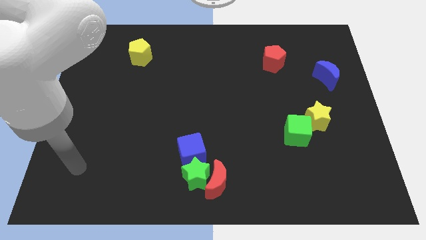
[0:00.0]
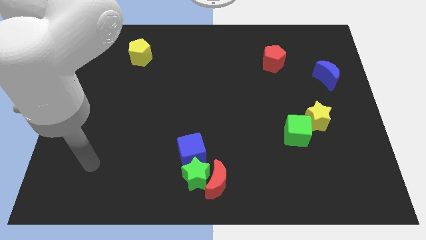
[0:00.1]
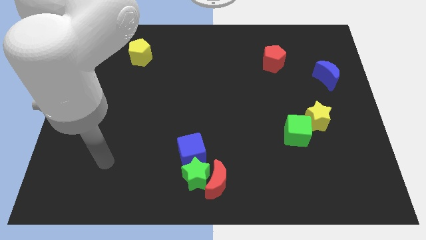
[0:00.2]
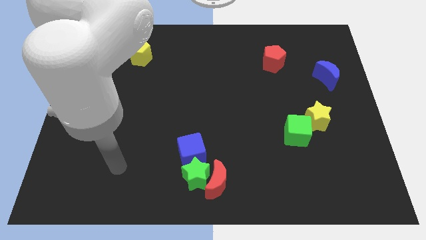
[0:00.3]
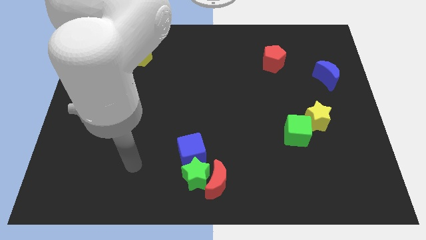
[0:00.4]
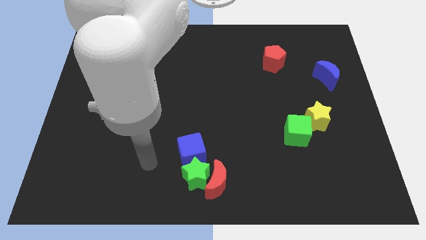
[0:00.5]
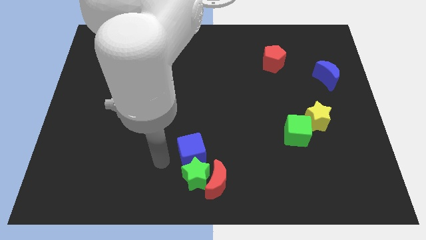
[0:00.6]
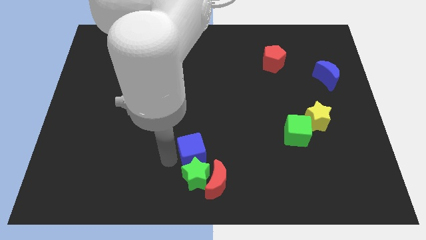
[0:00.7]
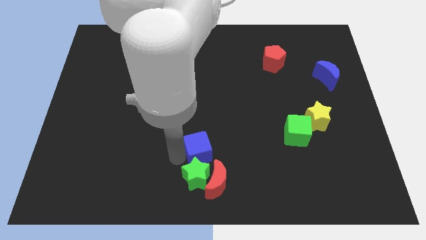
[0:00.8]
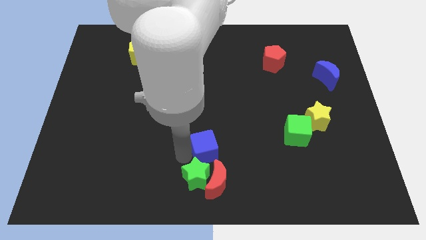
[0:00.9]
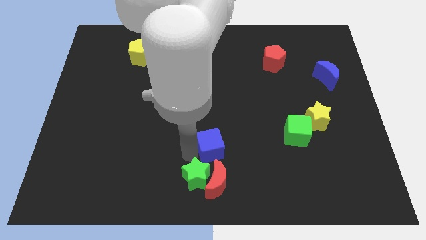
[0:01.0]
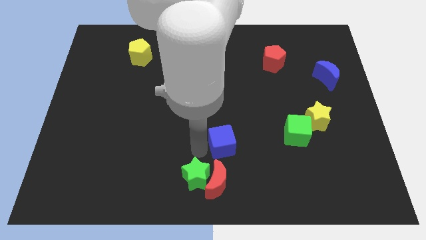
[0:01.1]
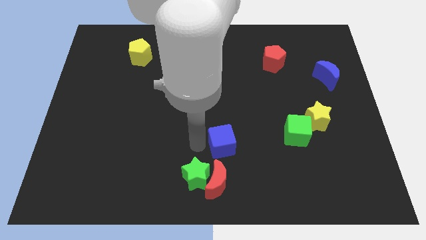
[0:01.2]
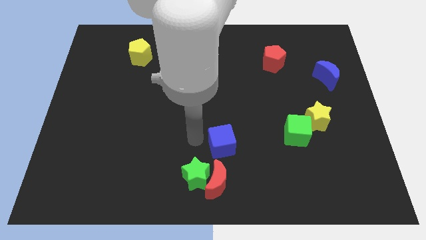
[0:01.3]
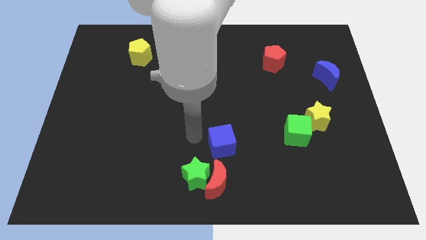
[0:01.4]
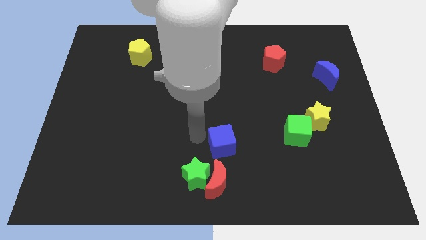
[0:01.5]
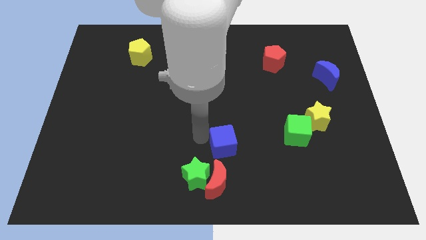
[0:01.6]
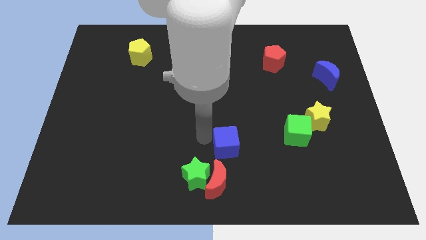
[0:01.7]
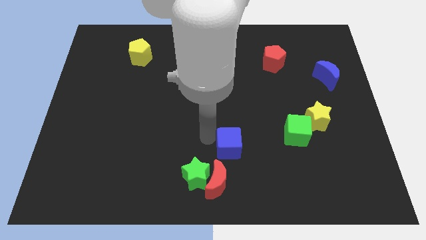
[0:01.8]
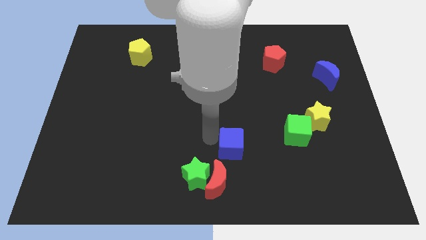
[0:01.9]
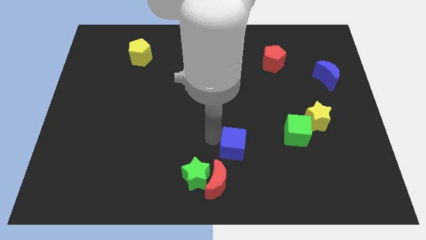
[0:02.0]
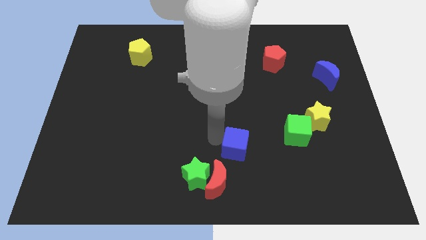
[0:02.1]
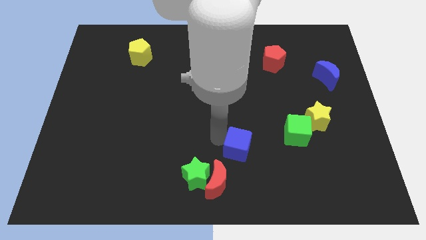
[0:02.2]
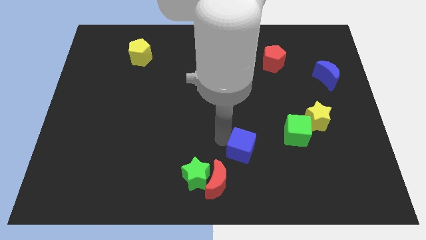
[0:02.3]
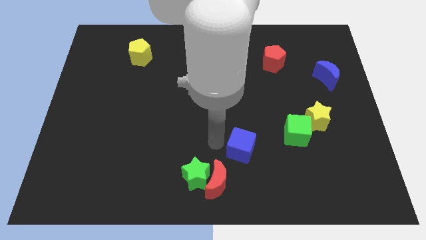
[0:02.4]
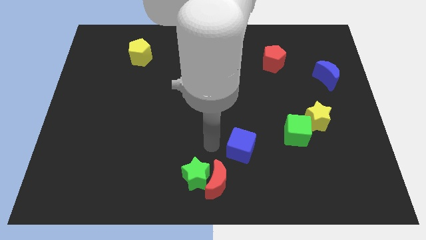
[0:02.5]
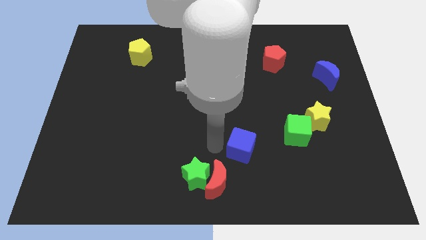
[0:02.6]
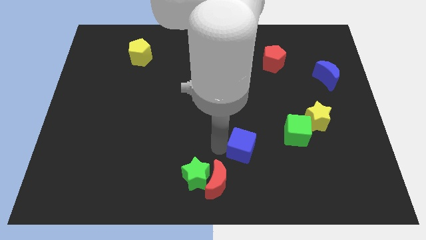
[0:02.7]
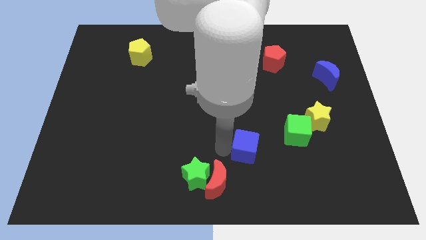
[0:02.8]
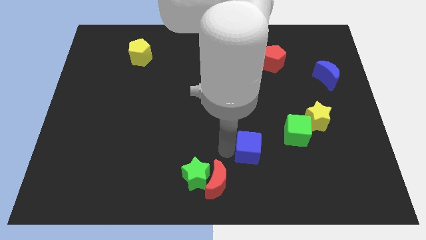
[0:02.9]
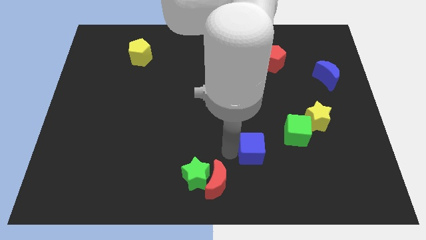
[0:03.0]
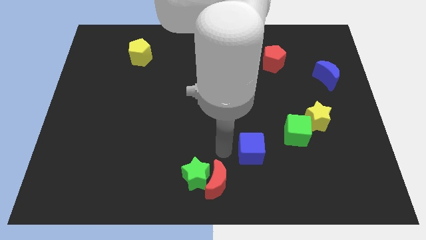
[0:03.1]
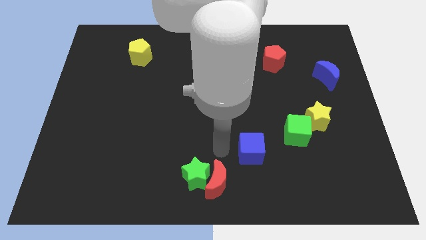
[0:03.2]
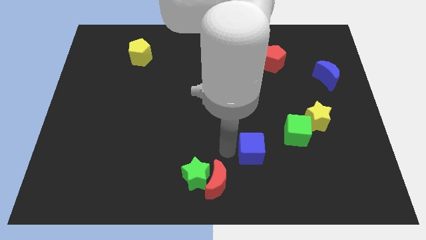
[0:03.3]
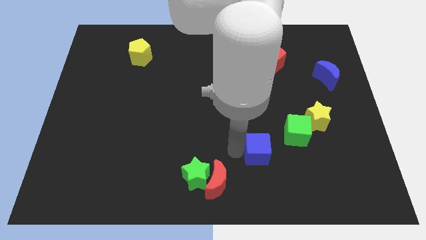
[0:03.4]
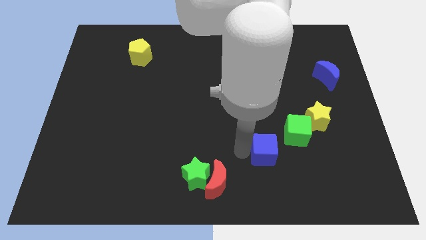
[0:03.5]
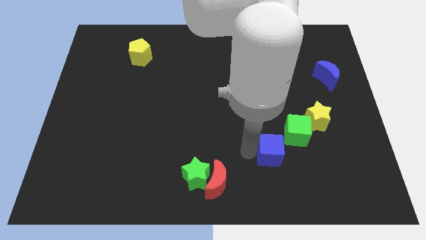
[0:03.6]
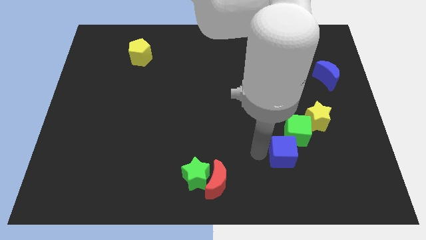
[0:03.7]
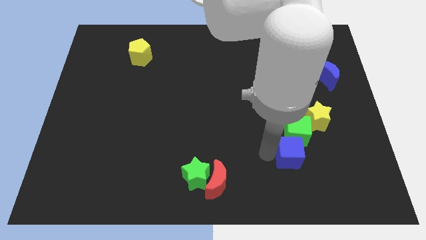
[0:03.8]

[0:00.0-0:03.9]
push the blue cube to the right

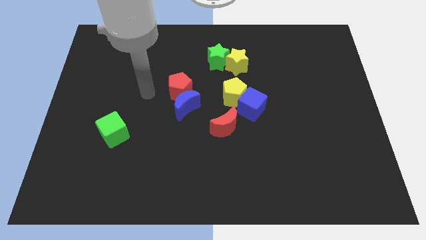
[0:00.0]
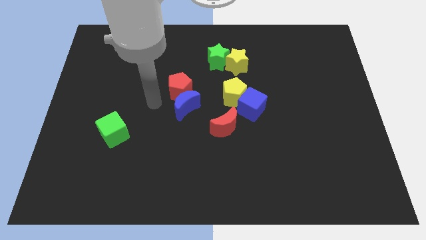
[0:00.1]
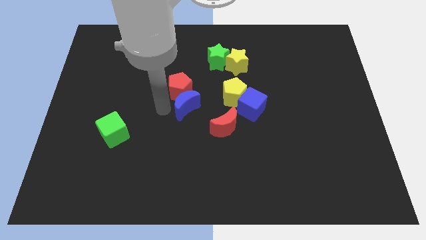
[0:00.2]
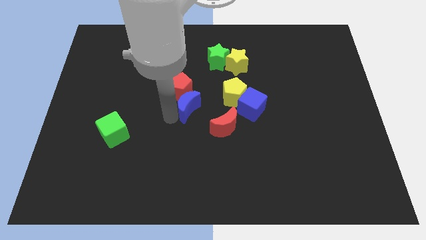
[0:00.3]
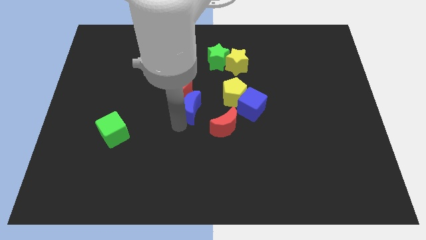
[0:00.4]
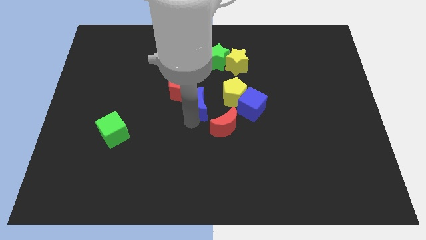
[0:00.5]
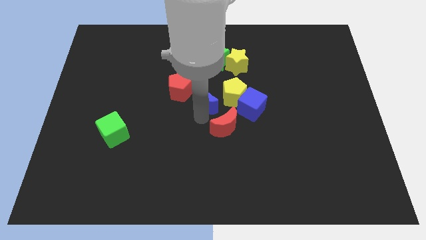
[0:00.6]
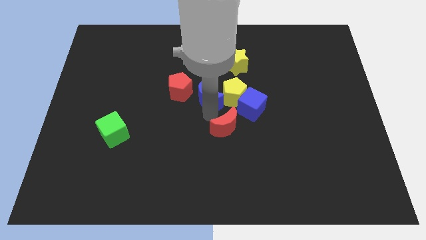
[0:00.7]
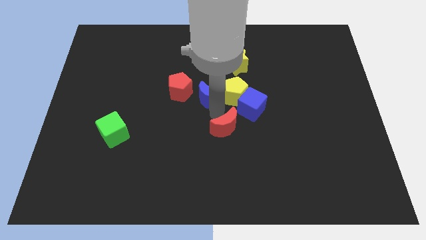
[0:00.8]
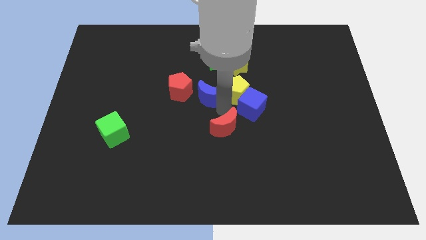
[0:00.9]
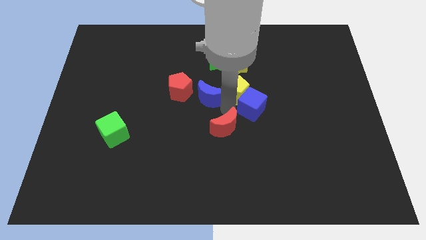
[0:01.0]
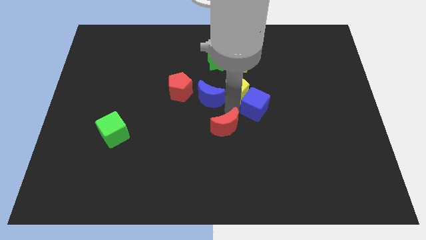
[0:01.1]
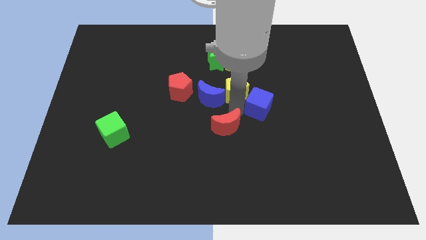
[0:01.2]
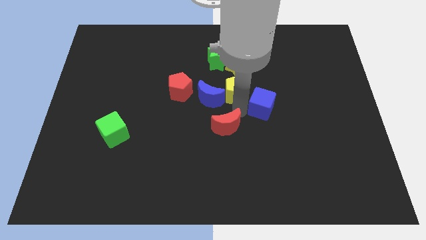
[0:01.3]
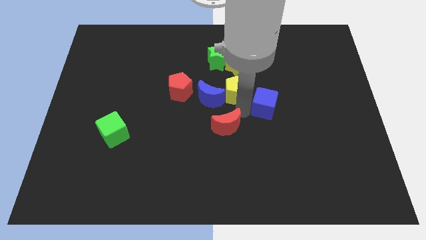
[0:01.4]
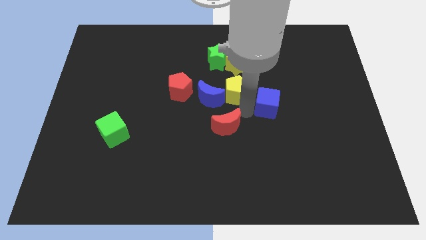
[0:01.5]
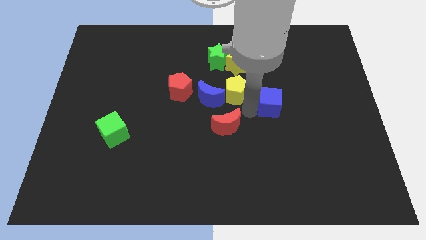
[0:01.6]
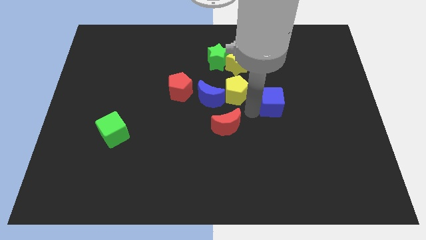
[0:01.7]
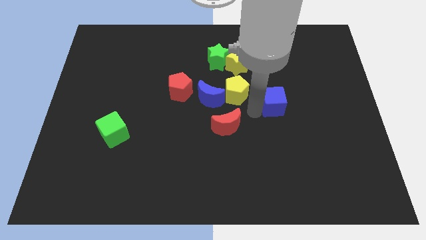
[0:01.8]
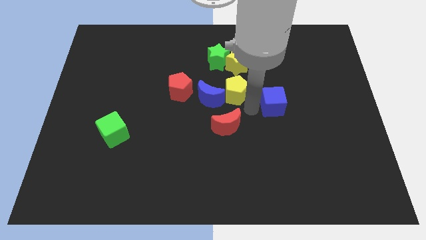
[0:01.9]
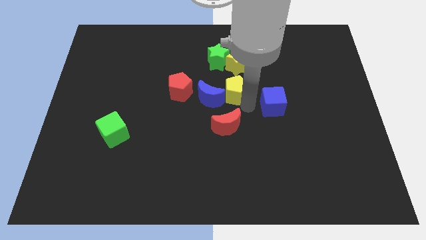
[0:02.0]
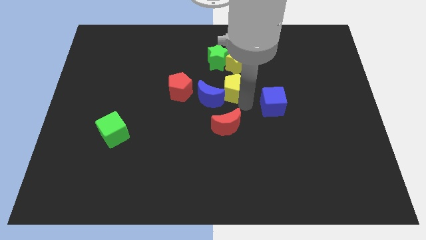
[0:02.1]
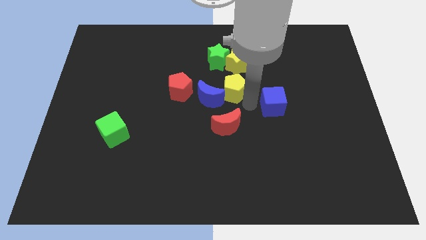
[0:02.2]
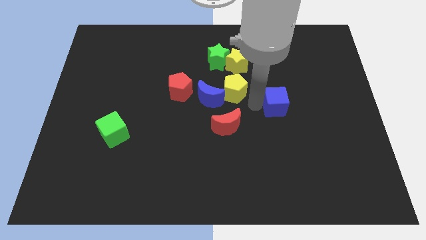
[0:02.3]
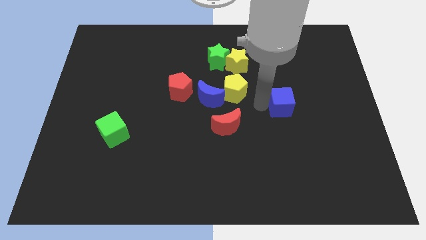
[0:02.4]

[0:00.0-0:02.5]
move the blue cube a bit to the right

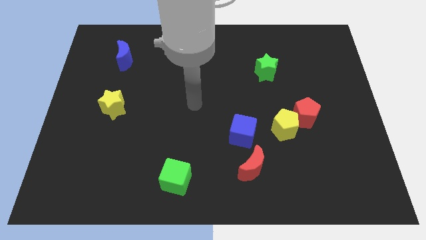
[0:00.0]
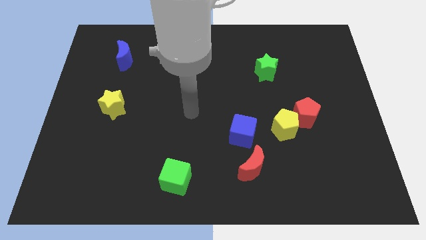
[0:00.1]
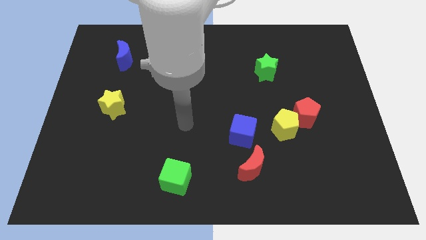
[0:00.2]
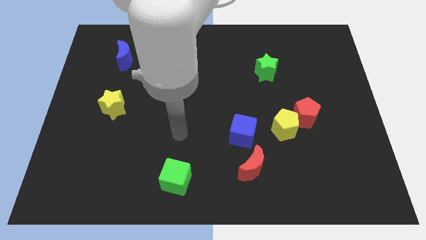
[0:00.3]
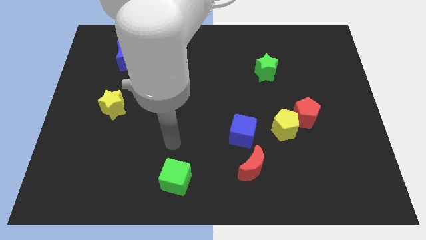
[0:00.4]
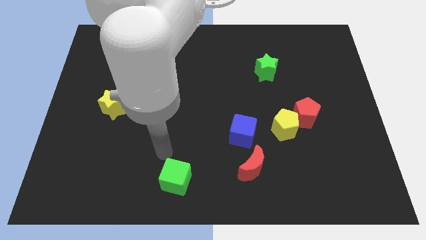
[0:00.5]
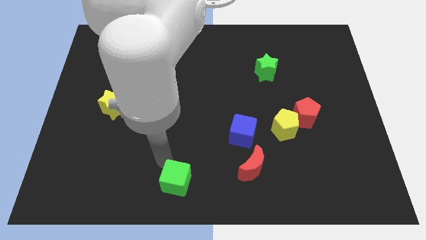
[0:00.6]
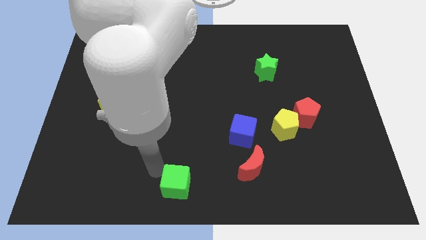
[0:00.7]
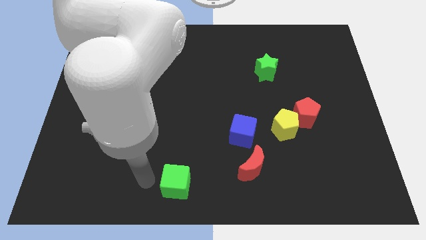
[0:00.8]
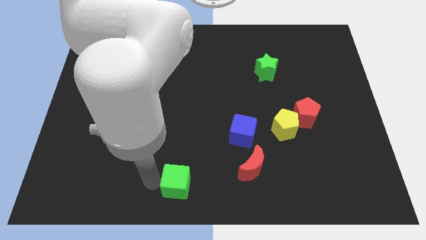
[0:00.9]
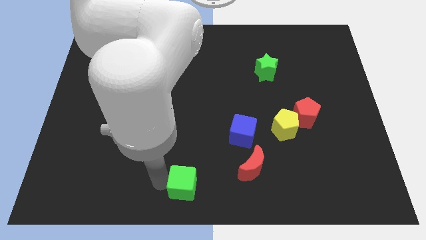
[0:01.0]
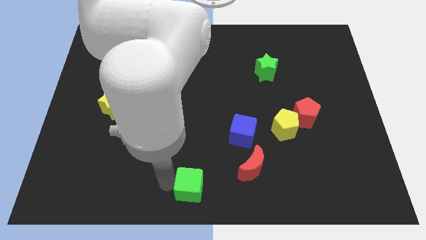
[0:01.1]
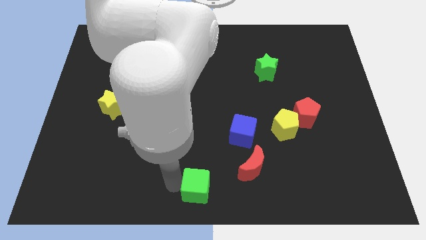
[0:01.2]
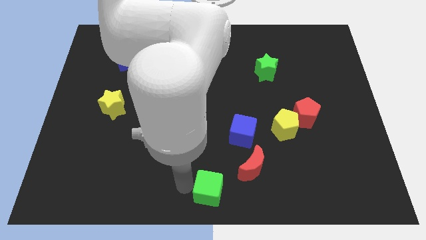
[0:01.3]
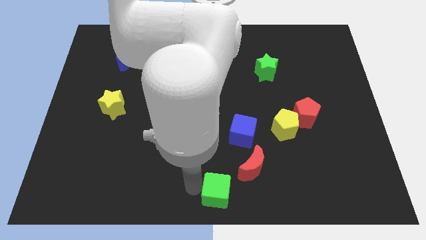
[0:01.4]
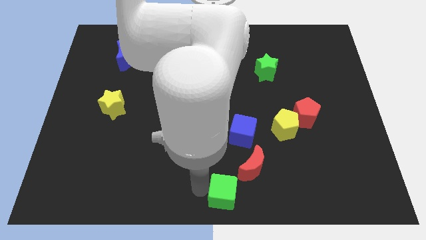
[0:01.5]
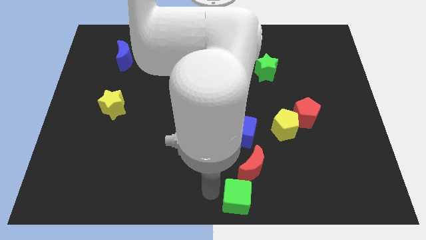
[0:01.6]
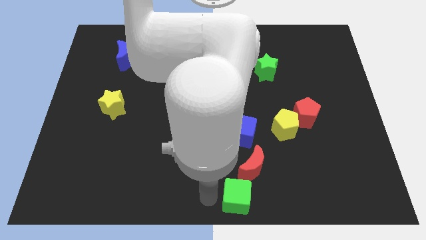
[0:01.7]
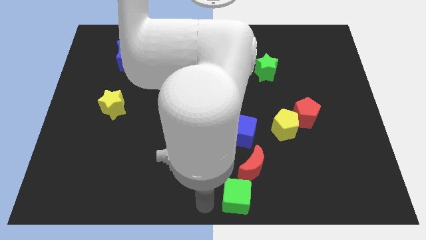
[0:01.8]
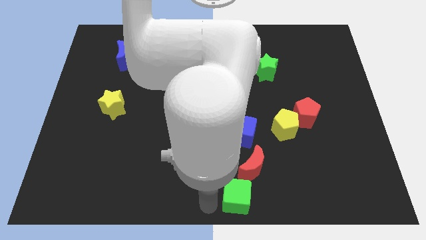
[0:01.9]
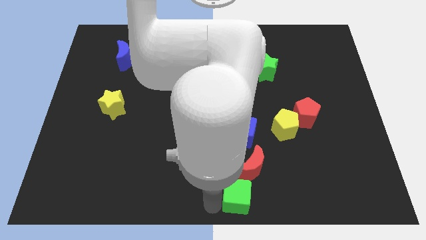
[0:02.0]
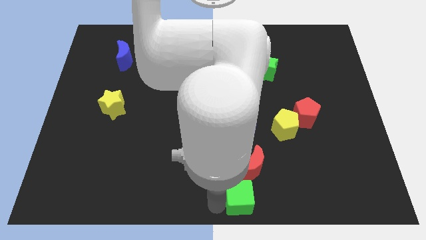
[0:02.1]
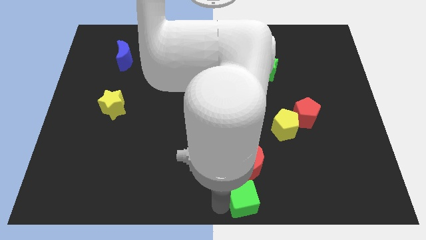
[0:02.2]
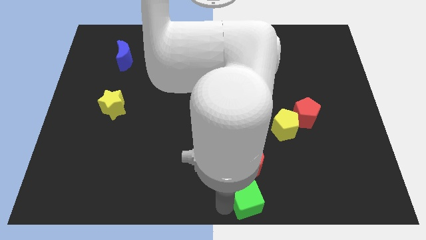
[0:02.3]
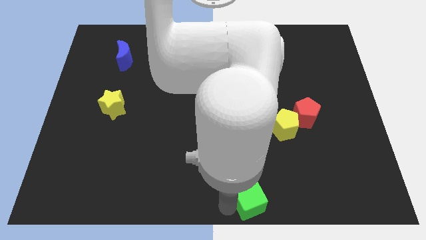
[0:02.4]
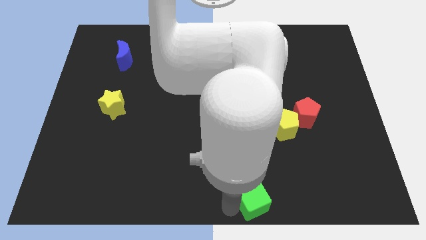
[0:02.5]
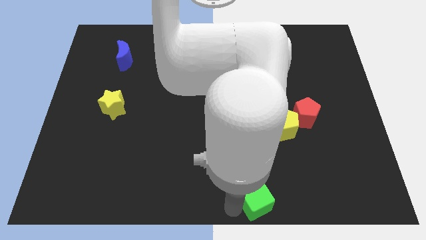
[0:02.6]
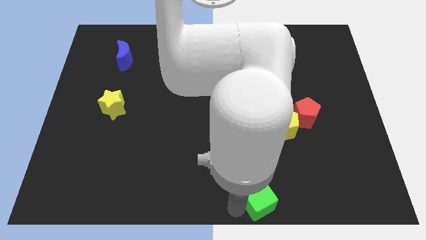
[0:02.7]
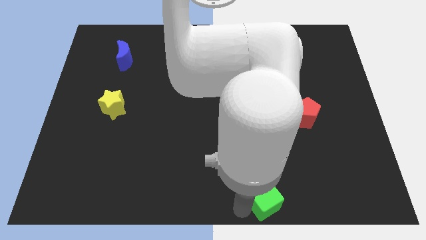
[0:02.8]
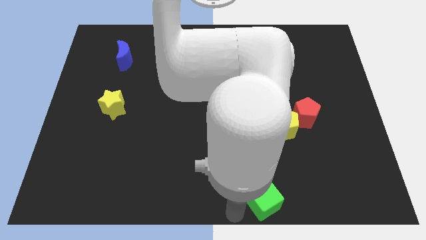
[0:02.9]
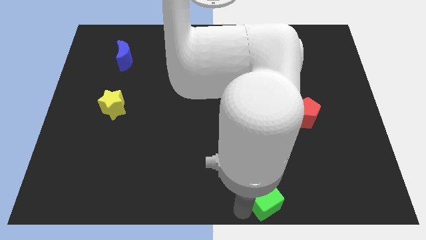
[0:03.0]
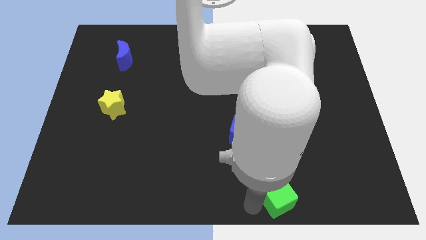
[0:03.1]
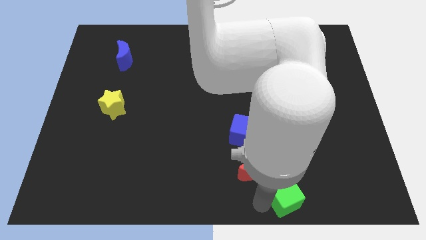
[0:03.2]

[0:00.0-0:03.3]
move the green cube to the right
